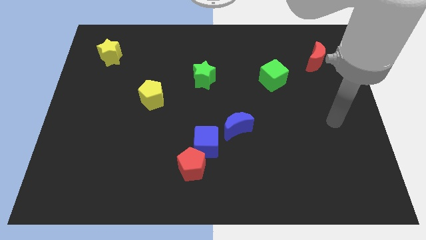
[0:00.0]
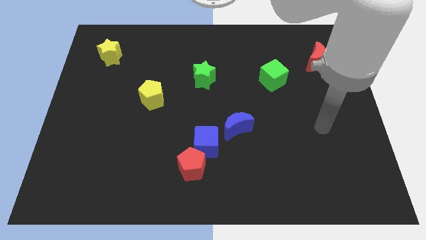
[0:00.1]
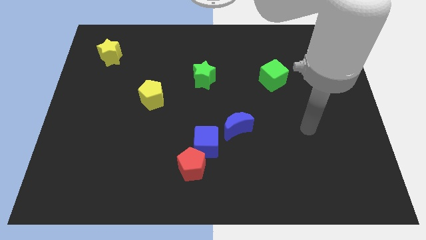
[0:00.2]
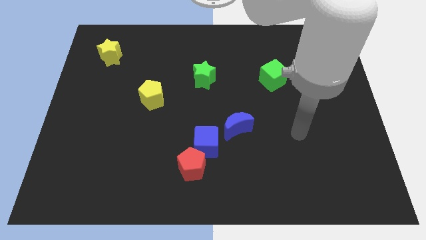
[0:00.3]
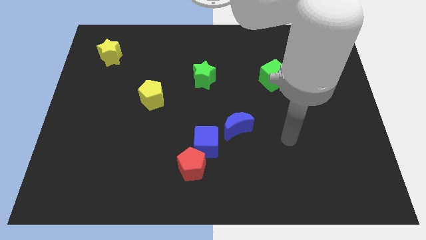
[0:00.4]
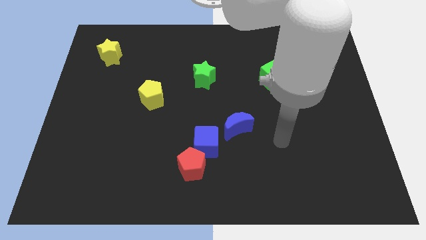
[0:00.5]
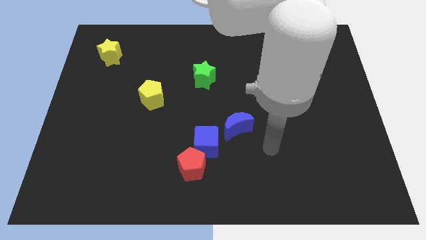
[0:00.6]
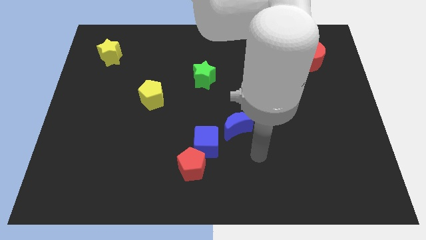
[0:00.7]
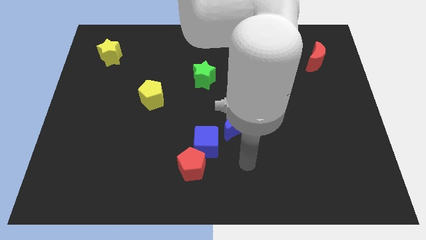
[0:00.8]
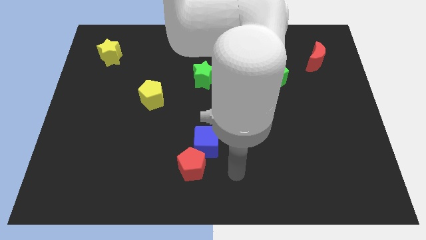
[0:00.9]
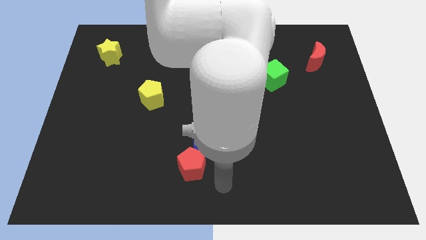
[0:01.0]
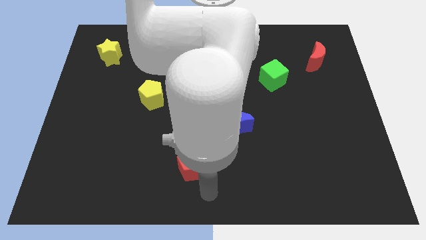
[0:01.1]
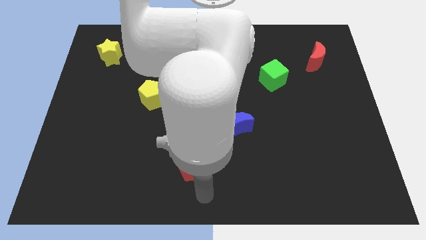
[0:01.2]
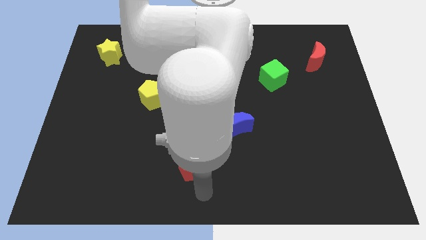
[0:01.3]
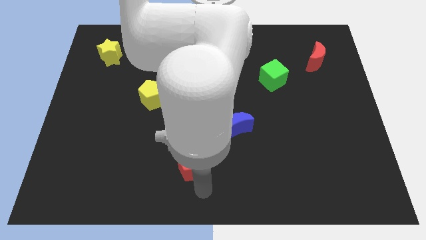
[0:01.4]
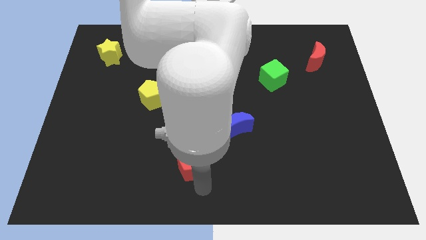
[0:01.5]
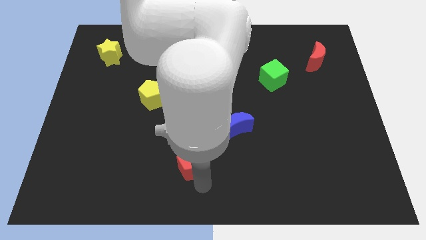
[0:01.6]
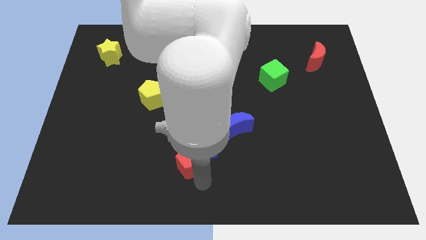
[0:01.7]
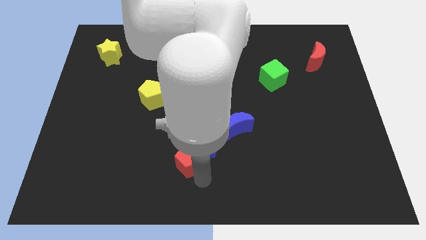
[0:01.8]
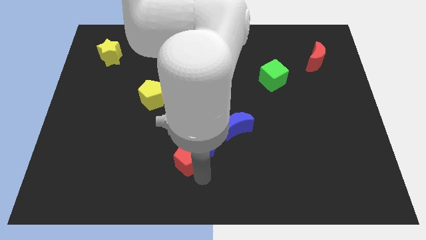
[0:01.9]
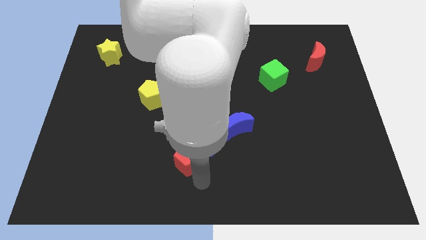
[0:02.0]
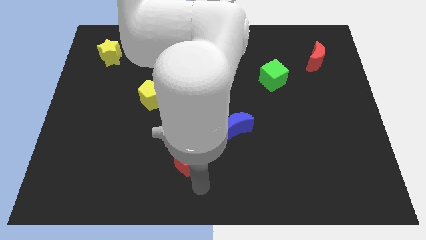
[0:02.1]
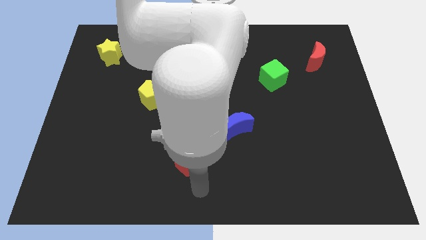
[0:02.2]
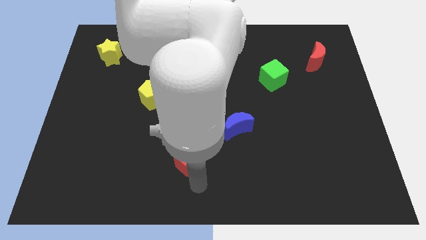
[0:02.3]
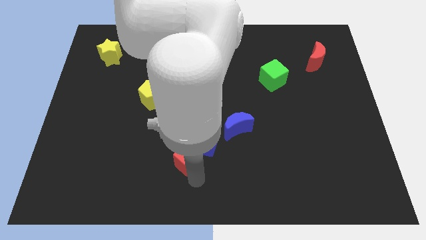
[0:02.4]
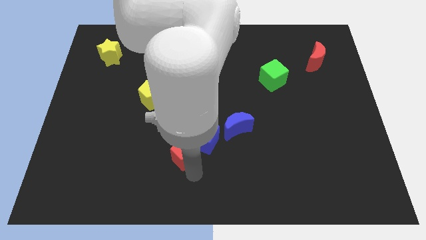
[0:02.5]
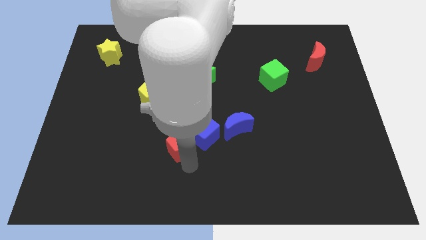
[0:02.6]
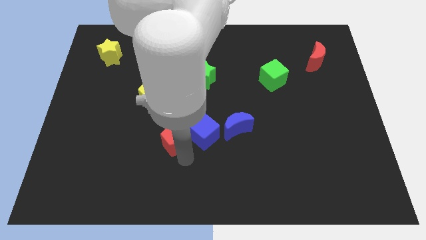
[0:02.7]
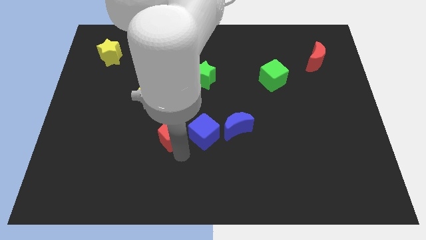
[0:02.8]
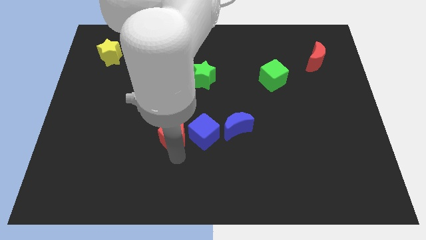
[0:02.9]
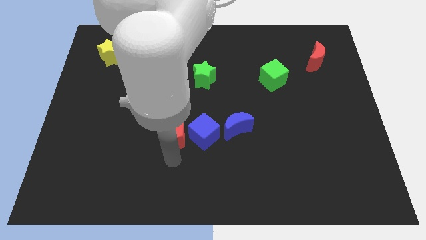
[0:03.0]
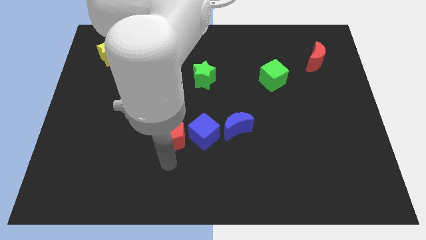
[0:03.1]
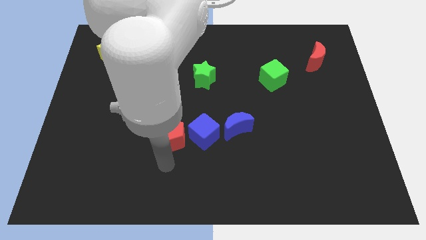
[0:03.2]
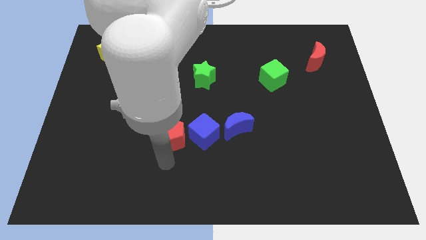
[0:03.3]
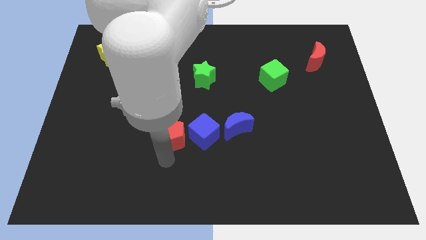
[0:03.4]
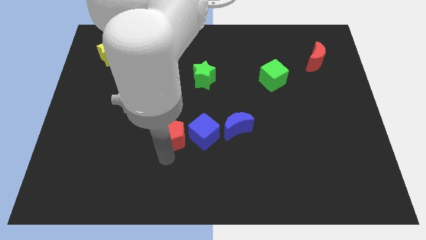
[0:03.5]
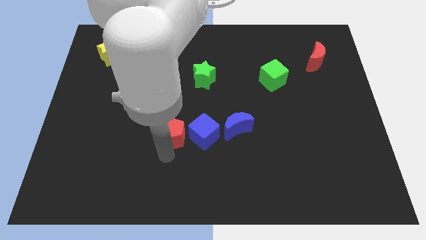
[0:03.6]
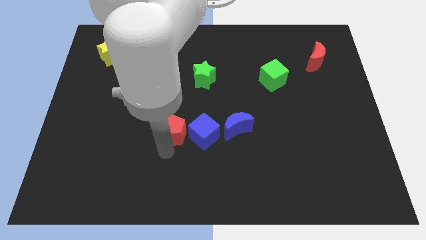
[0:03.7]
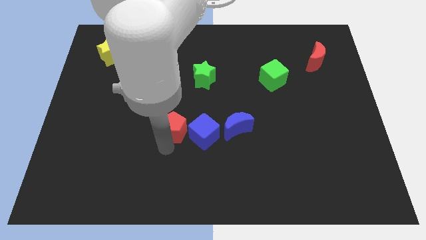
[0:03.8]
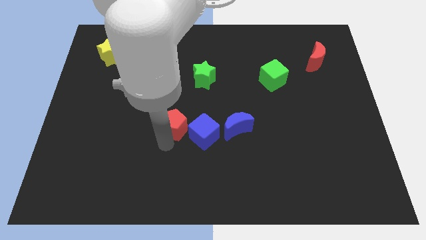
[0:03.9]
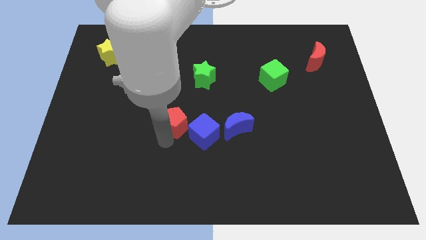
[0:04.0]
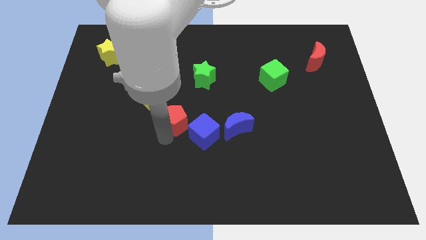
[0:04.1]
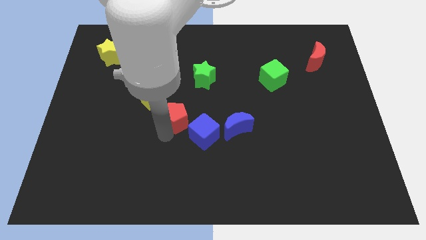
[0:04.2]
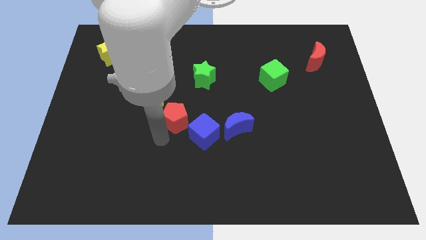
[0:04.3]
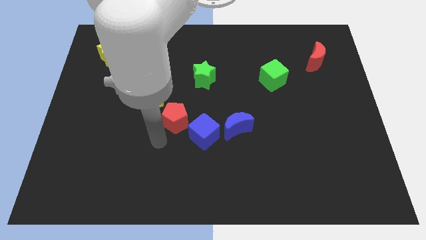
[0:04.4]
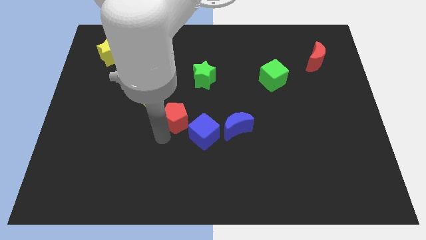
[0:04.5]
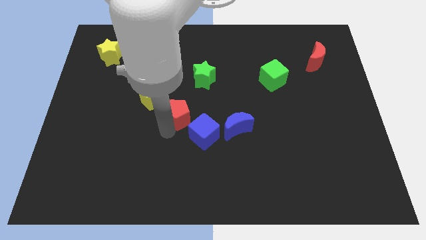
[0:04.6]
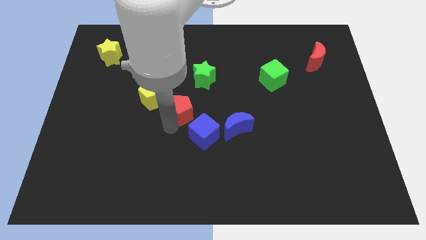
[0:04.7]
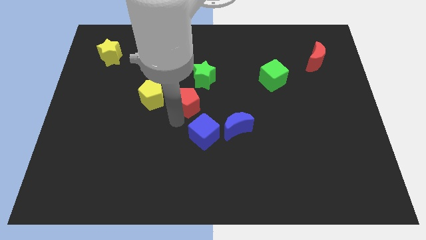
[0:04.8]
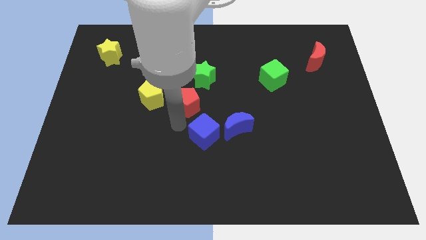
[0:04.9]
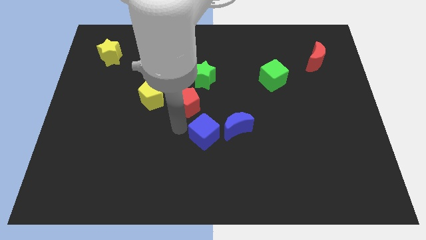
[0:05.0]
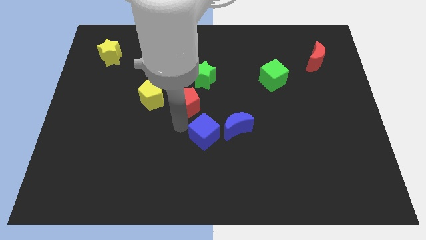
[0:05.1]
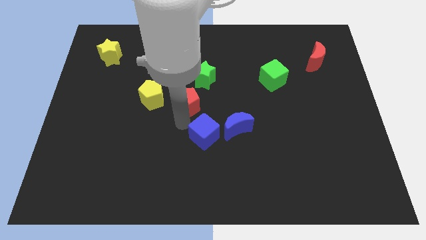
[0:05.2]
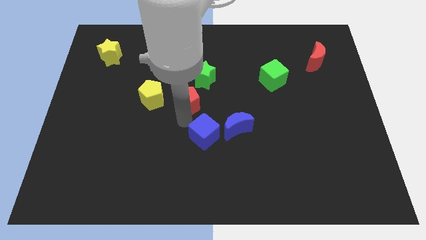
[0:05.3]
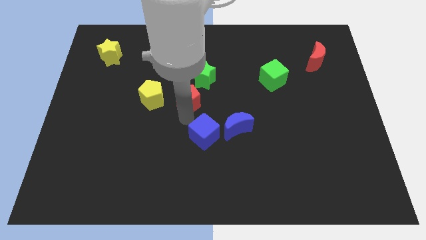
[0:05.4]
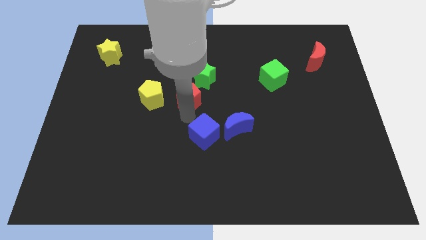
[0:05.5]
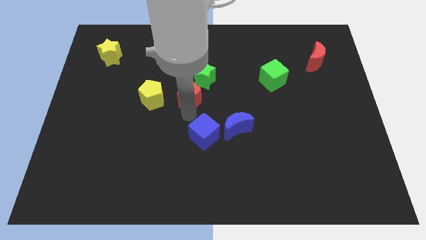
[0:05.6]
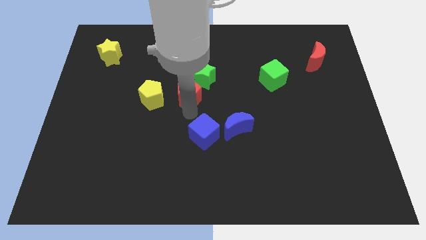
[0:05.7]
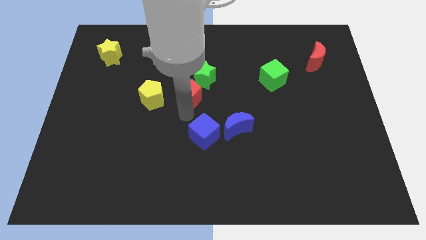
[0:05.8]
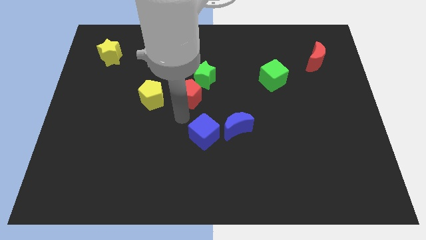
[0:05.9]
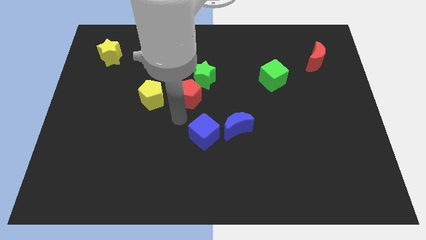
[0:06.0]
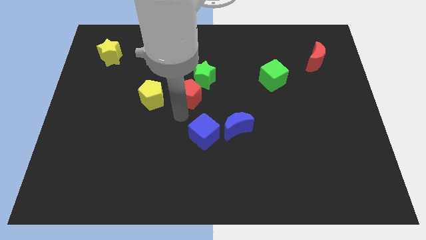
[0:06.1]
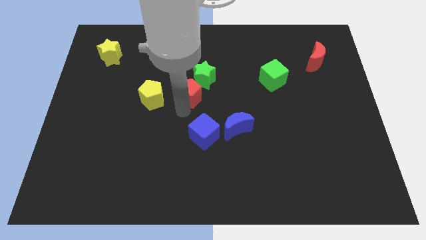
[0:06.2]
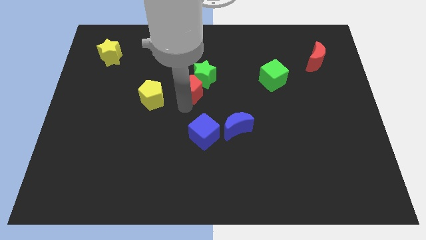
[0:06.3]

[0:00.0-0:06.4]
slide the red pentagon to the green star
